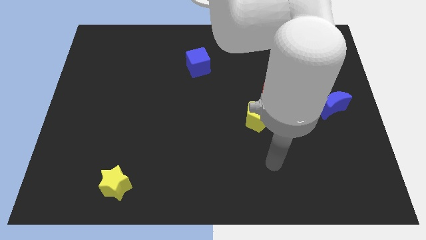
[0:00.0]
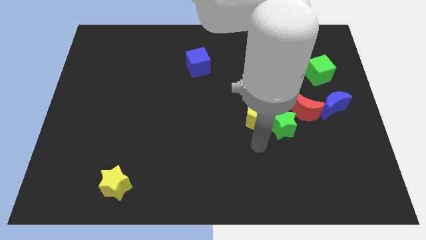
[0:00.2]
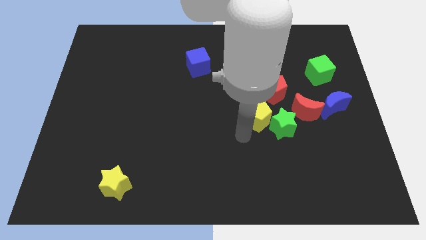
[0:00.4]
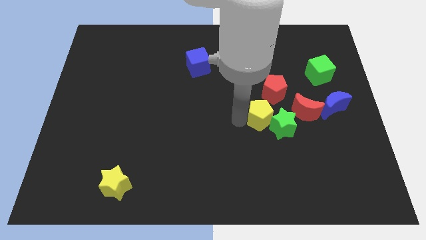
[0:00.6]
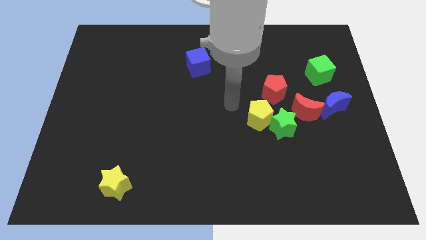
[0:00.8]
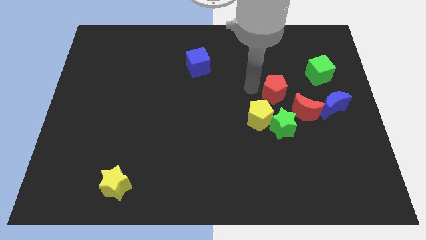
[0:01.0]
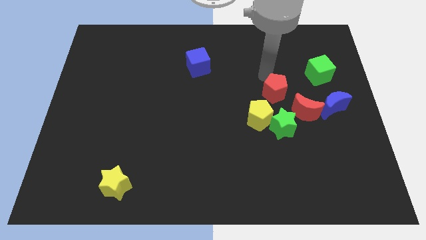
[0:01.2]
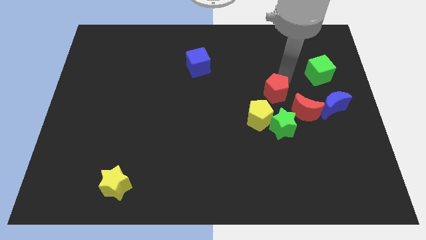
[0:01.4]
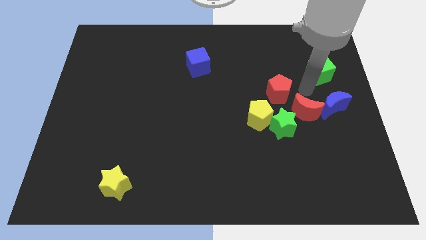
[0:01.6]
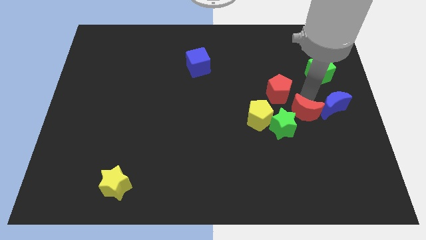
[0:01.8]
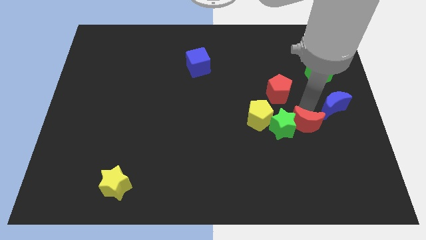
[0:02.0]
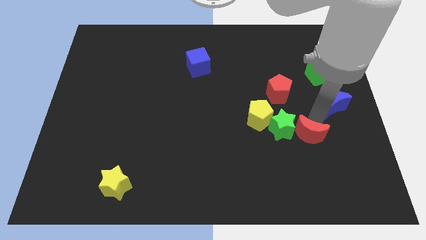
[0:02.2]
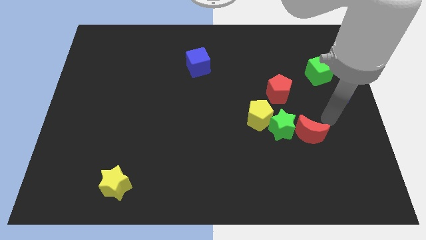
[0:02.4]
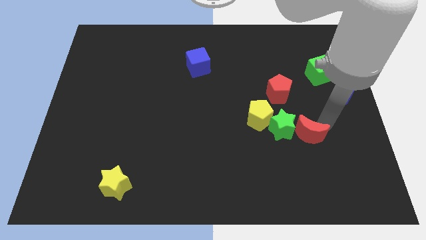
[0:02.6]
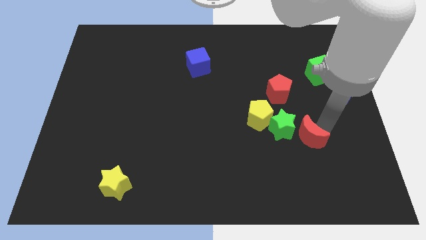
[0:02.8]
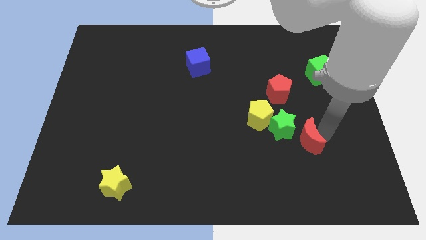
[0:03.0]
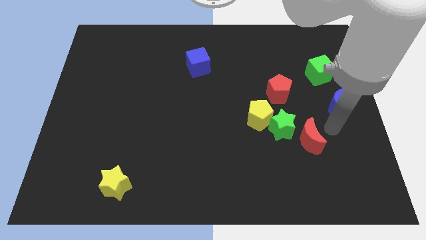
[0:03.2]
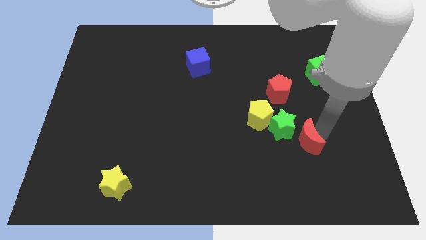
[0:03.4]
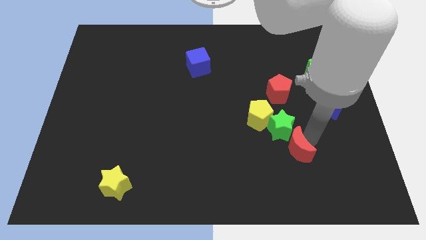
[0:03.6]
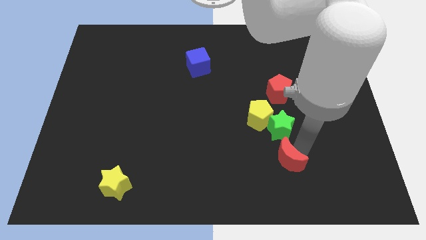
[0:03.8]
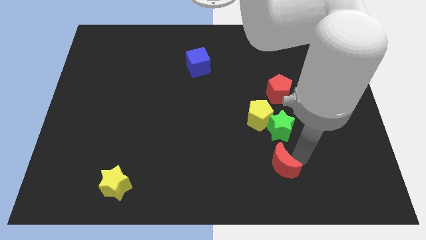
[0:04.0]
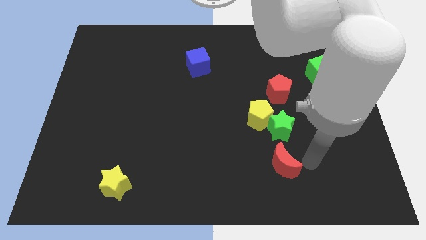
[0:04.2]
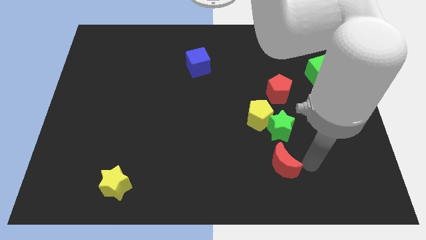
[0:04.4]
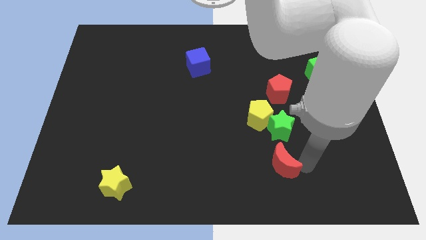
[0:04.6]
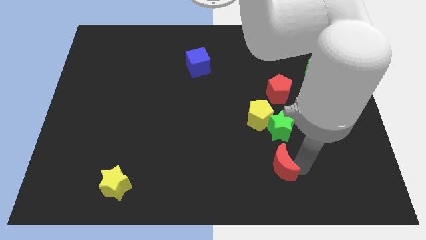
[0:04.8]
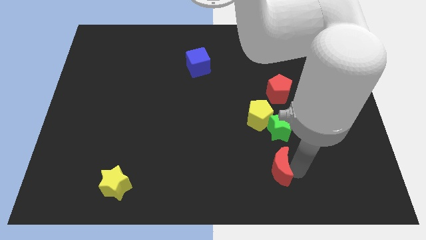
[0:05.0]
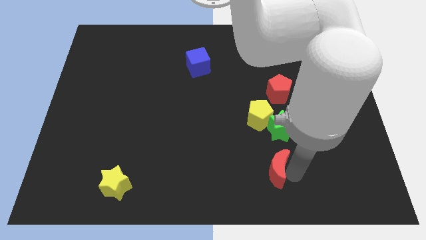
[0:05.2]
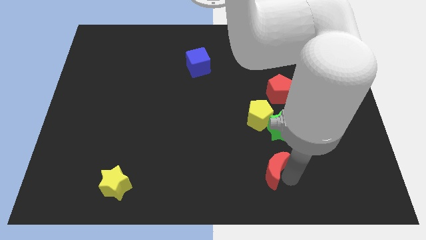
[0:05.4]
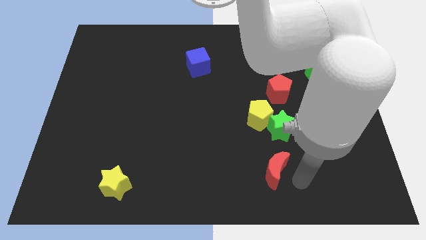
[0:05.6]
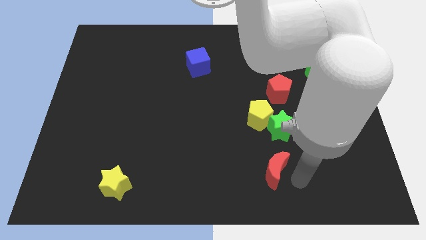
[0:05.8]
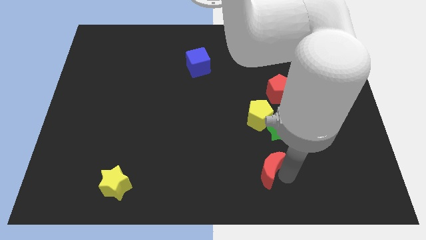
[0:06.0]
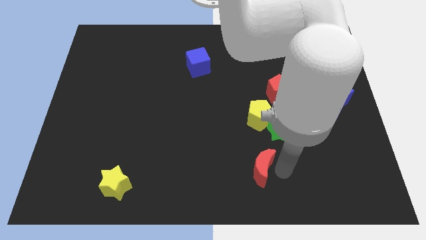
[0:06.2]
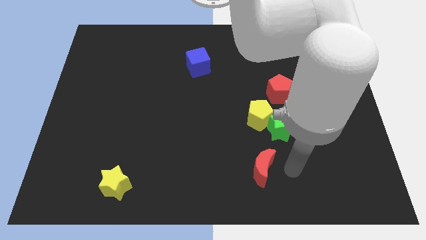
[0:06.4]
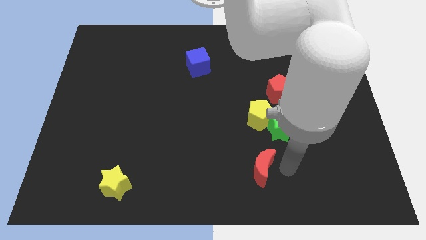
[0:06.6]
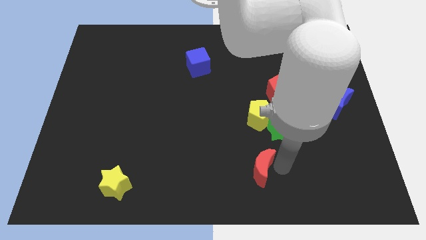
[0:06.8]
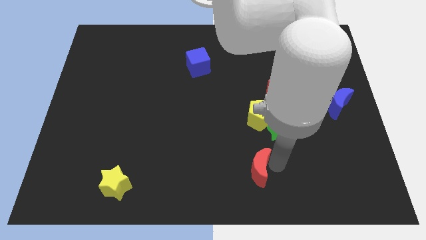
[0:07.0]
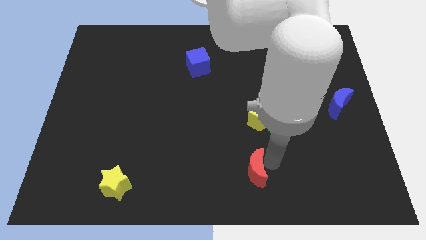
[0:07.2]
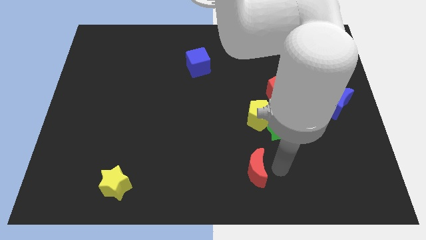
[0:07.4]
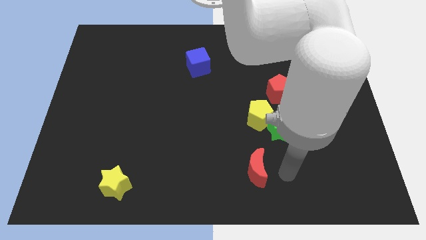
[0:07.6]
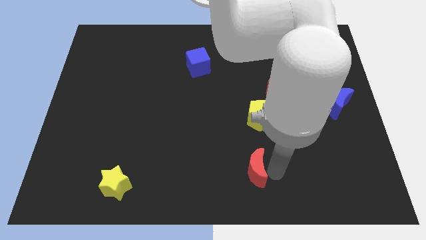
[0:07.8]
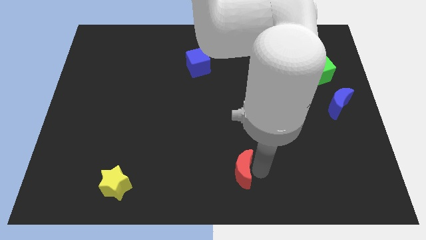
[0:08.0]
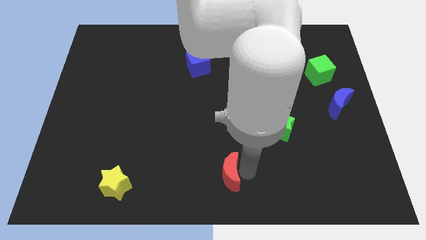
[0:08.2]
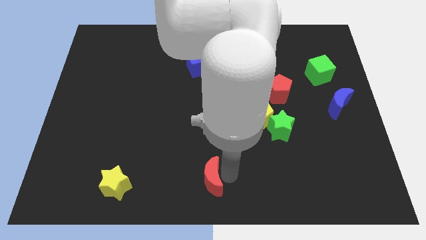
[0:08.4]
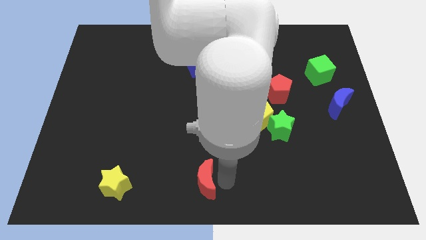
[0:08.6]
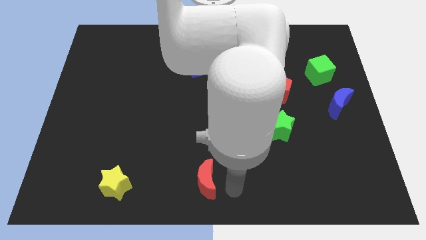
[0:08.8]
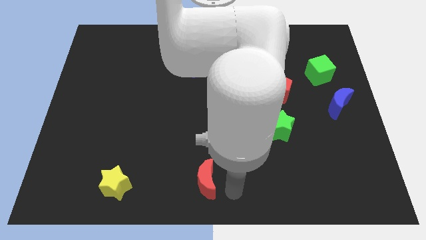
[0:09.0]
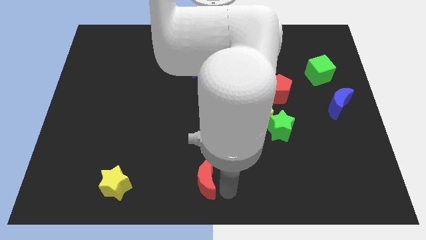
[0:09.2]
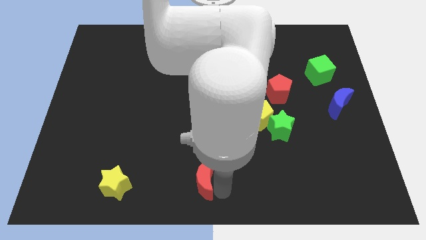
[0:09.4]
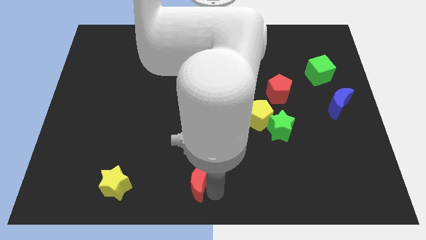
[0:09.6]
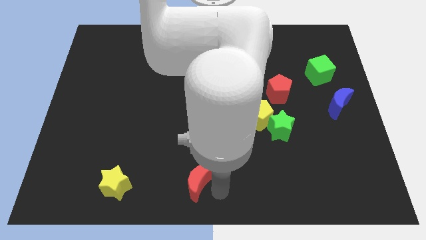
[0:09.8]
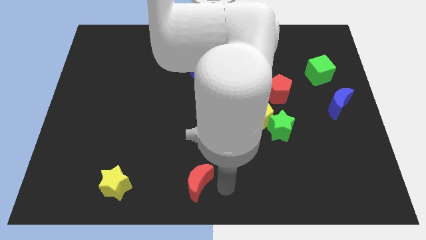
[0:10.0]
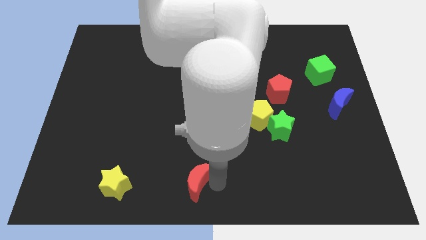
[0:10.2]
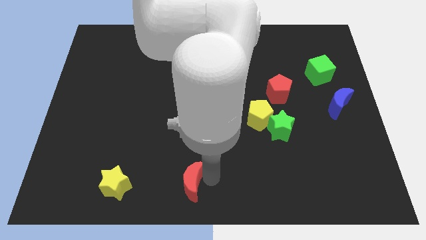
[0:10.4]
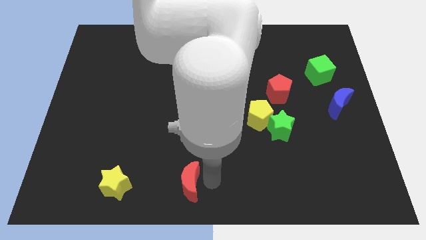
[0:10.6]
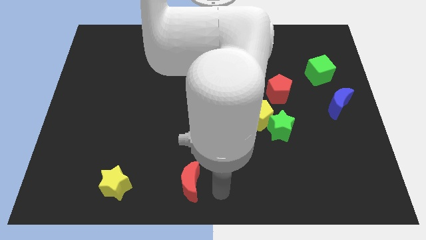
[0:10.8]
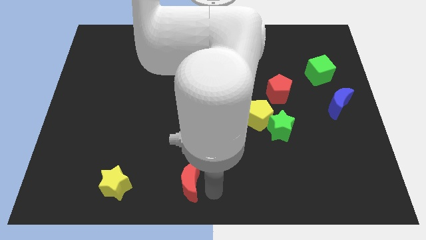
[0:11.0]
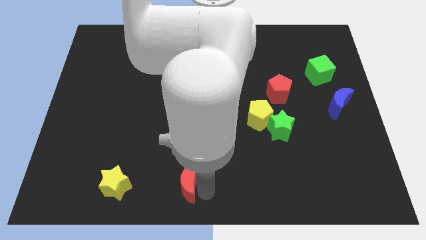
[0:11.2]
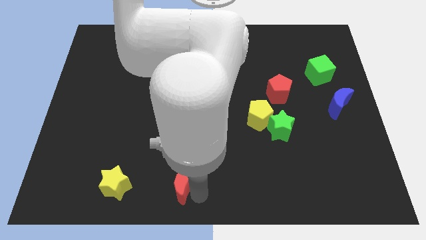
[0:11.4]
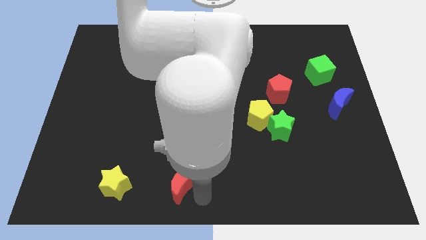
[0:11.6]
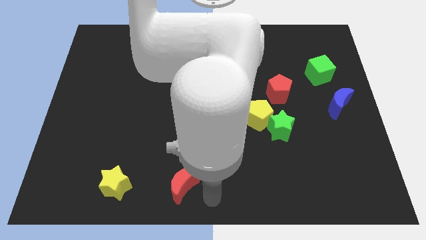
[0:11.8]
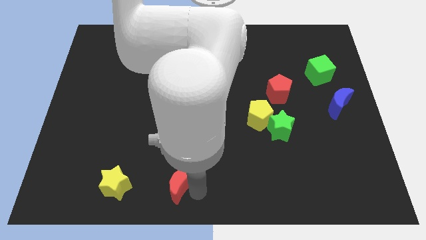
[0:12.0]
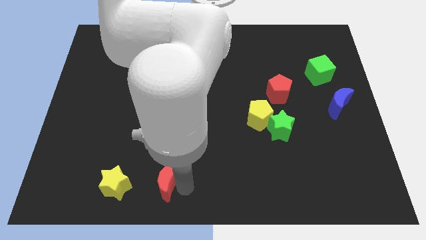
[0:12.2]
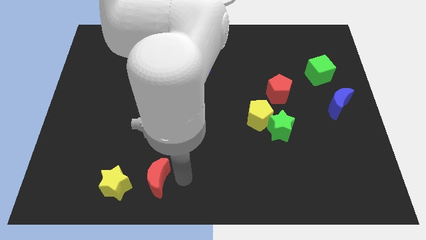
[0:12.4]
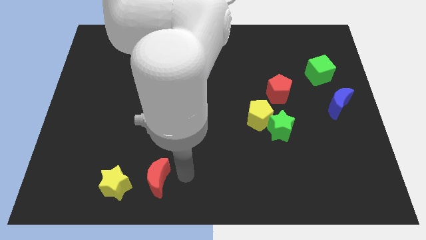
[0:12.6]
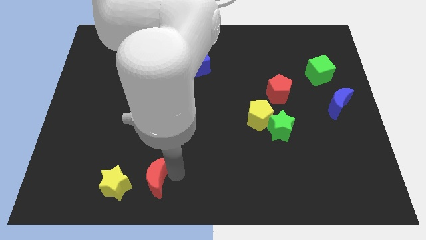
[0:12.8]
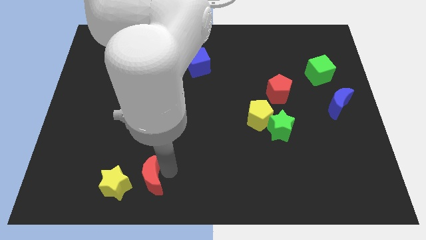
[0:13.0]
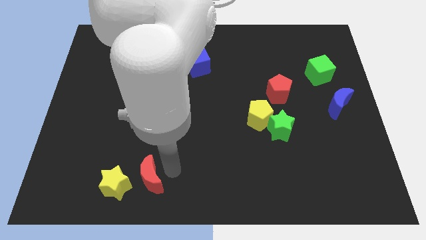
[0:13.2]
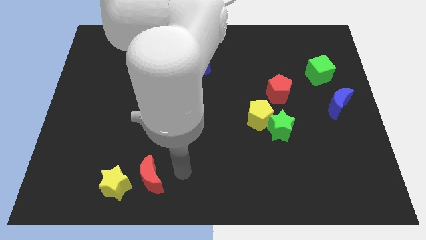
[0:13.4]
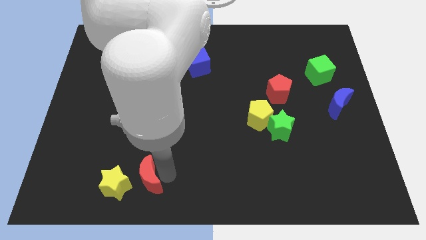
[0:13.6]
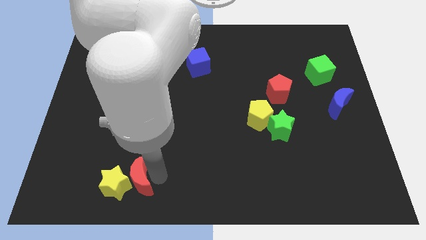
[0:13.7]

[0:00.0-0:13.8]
move the red moon to the yellow star
